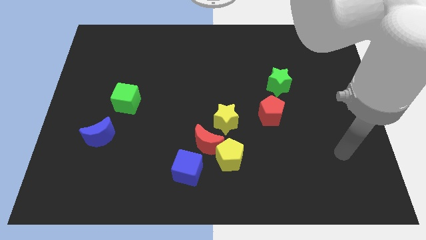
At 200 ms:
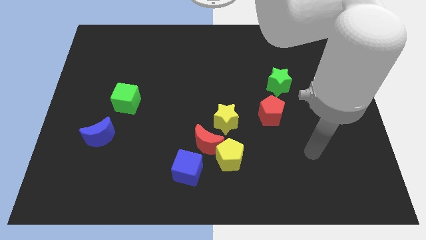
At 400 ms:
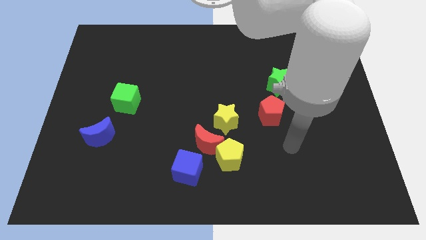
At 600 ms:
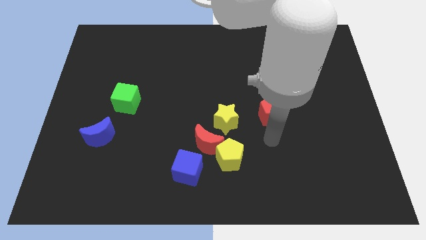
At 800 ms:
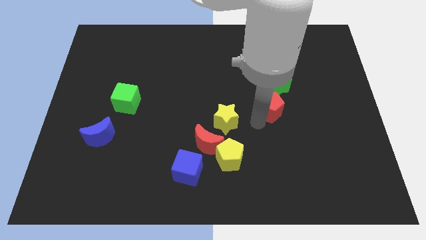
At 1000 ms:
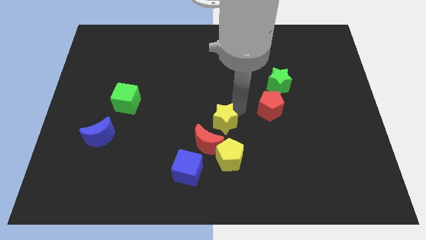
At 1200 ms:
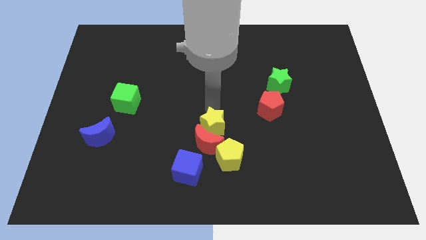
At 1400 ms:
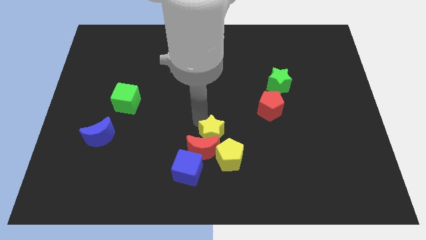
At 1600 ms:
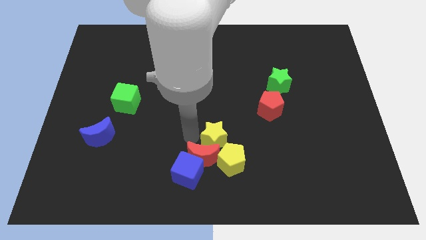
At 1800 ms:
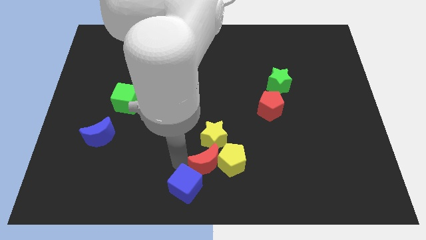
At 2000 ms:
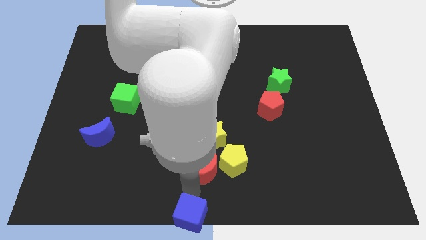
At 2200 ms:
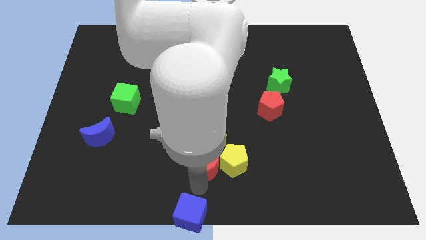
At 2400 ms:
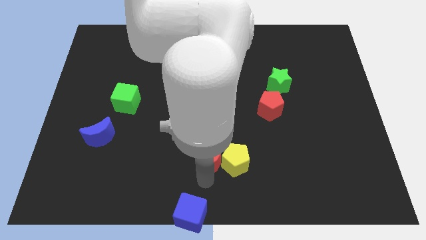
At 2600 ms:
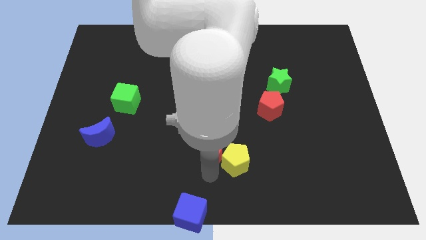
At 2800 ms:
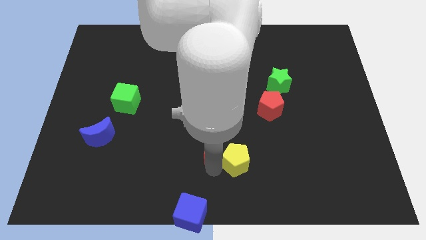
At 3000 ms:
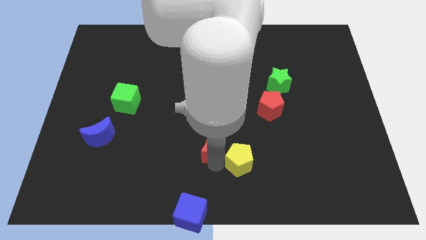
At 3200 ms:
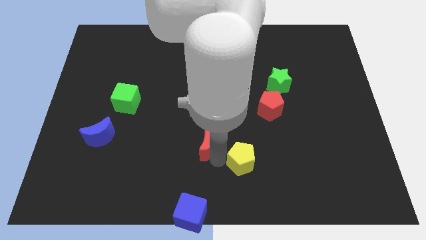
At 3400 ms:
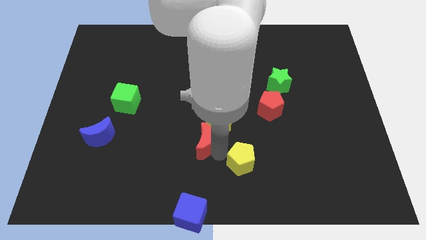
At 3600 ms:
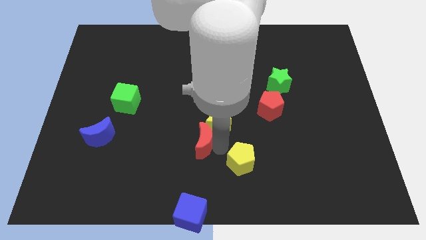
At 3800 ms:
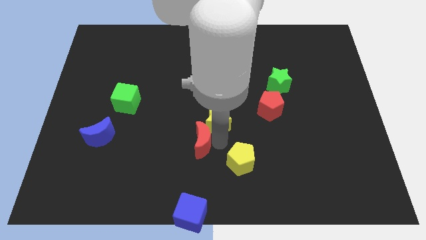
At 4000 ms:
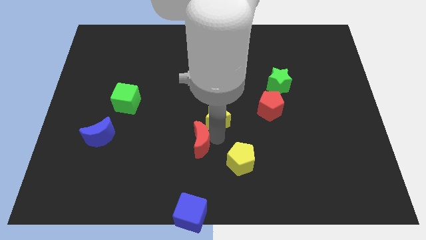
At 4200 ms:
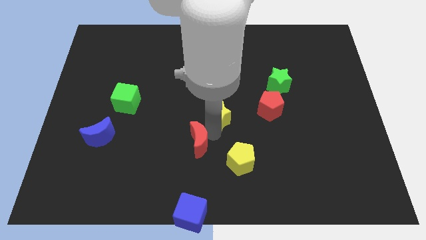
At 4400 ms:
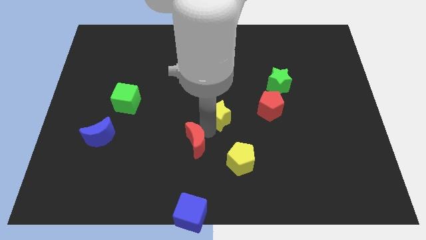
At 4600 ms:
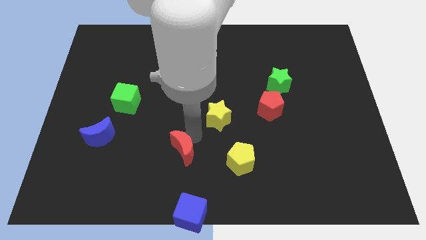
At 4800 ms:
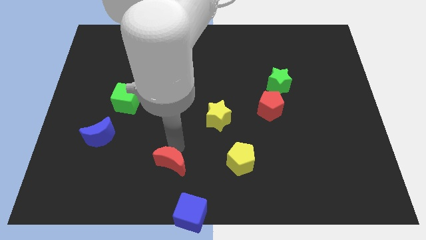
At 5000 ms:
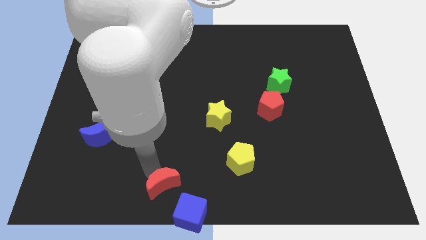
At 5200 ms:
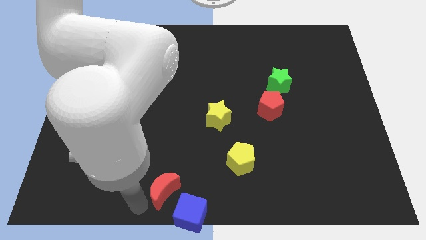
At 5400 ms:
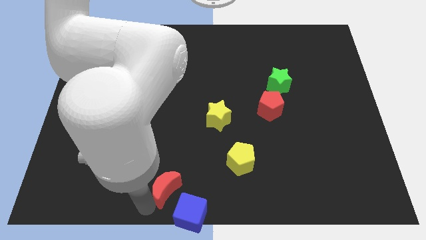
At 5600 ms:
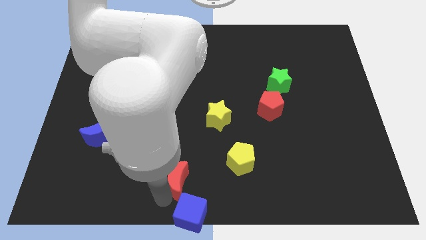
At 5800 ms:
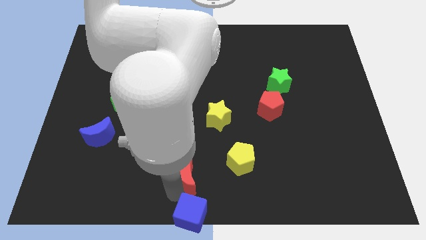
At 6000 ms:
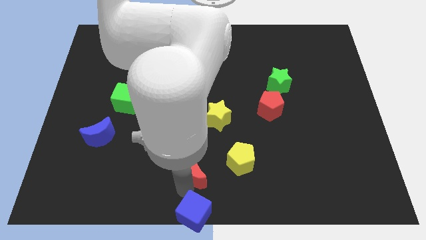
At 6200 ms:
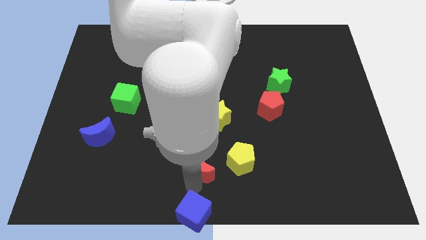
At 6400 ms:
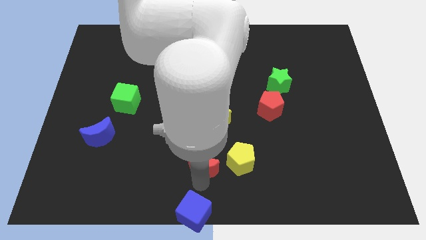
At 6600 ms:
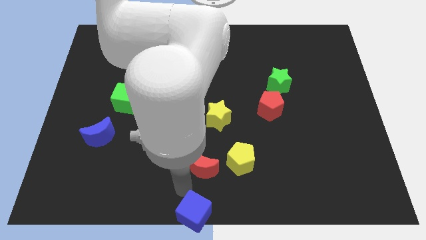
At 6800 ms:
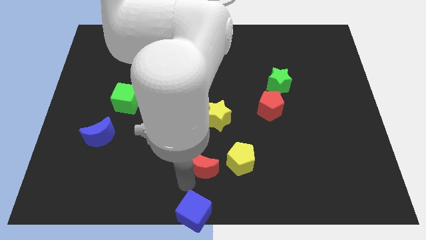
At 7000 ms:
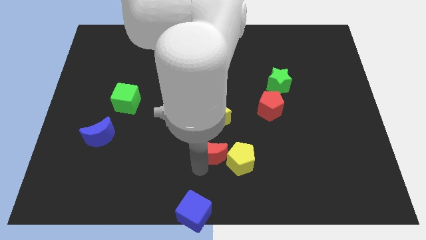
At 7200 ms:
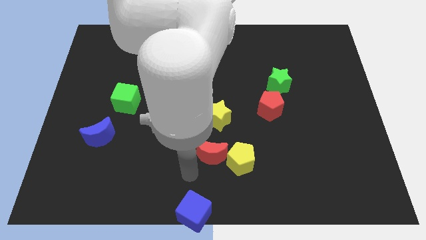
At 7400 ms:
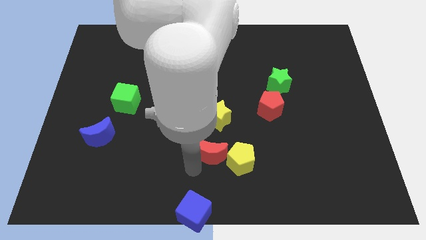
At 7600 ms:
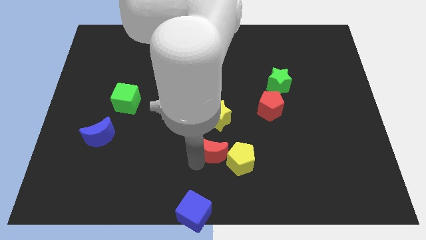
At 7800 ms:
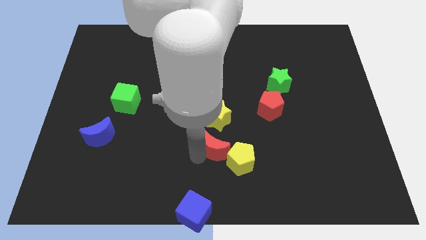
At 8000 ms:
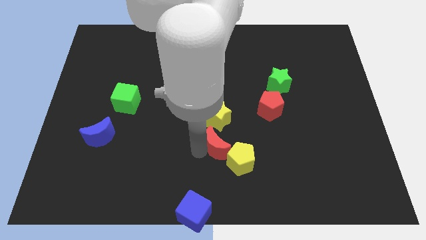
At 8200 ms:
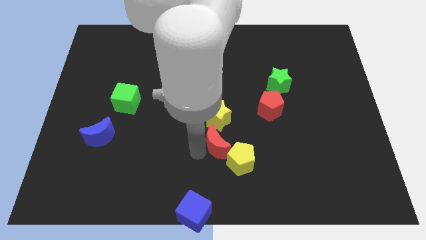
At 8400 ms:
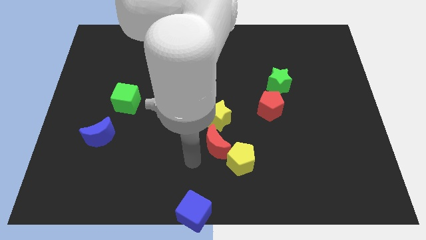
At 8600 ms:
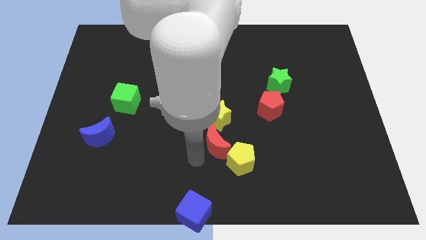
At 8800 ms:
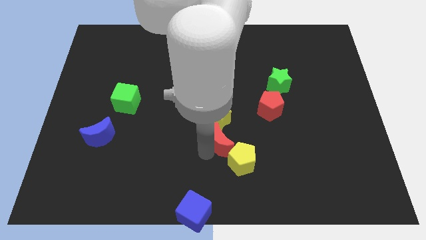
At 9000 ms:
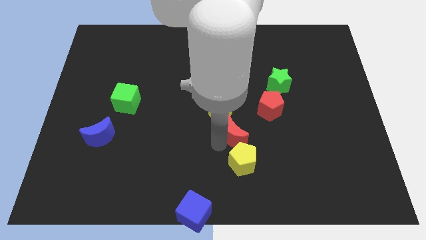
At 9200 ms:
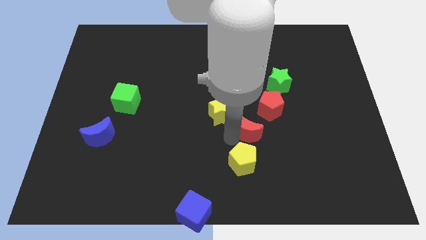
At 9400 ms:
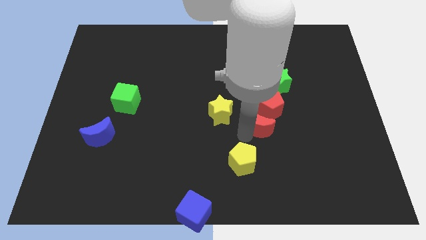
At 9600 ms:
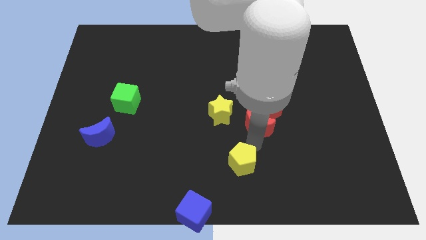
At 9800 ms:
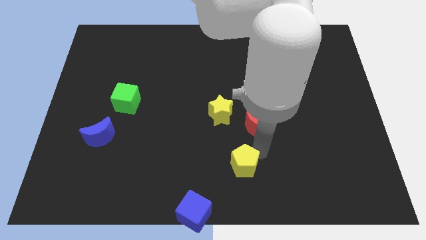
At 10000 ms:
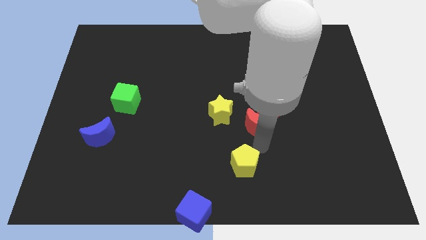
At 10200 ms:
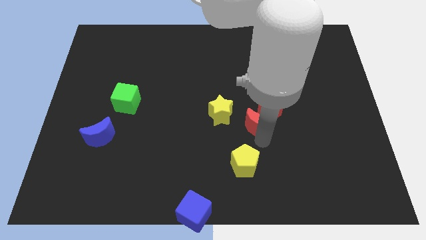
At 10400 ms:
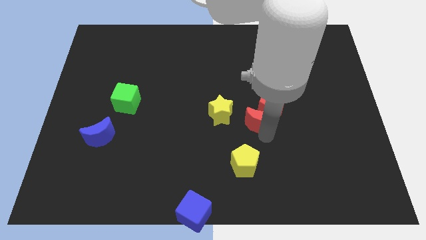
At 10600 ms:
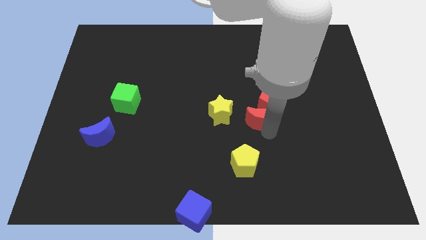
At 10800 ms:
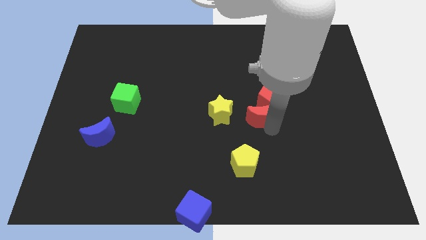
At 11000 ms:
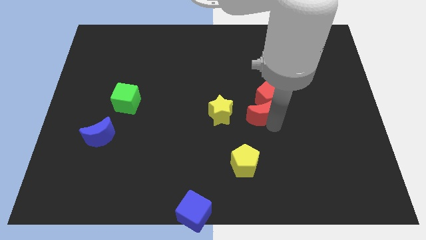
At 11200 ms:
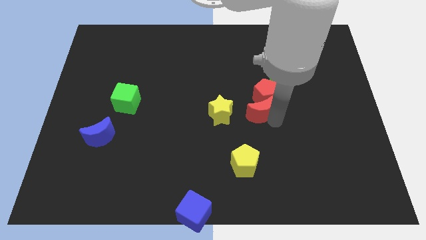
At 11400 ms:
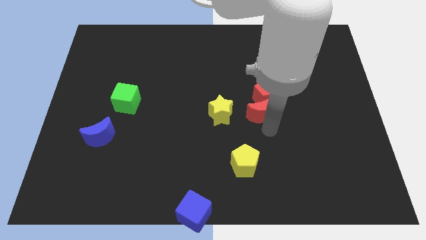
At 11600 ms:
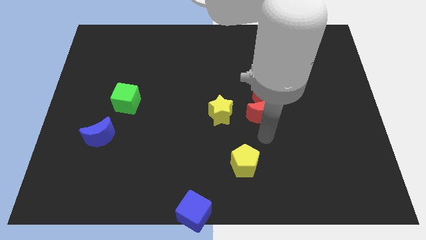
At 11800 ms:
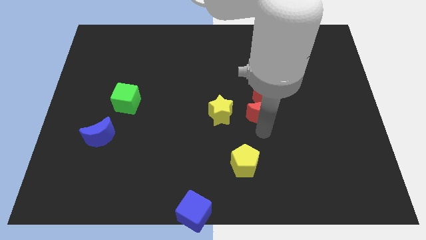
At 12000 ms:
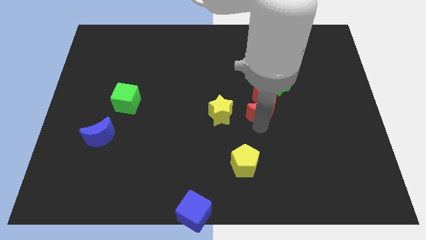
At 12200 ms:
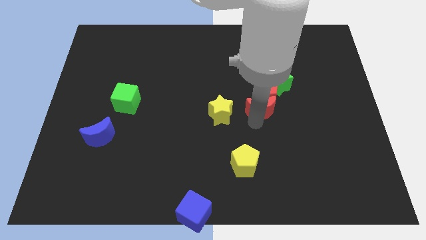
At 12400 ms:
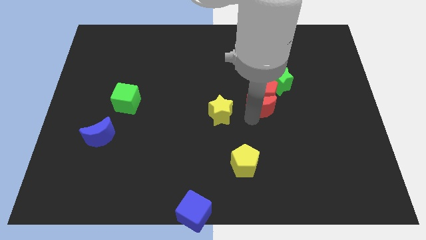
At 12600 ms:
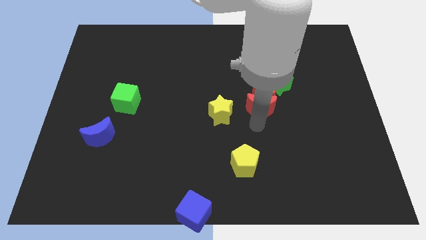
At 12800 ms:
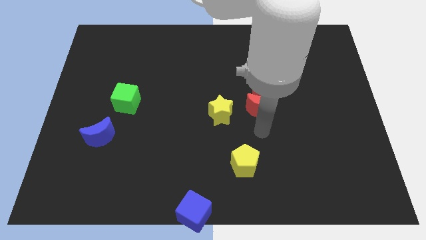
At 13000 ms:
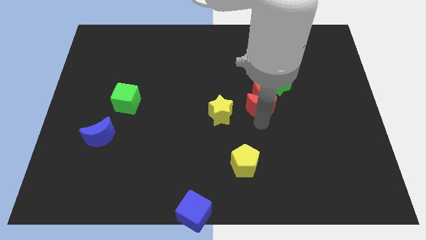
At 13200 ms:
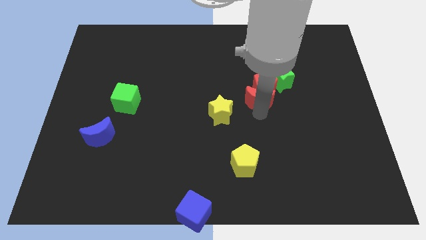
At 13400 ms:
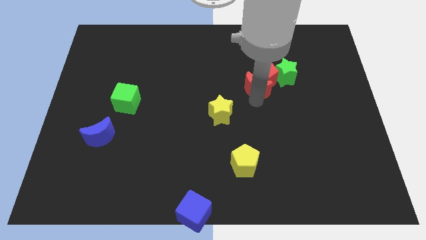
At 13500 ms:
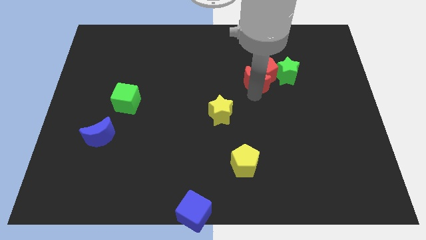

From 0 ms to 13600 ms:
slide the red moon up and to the right

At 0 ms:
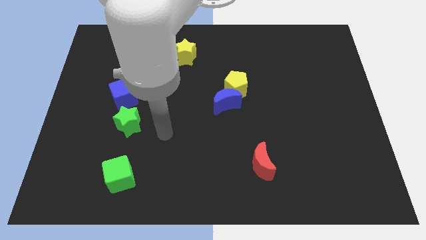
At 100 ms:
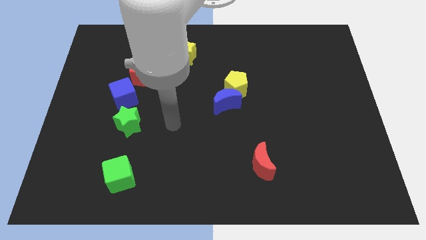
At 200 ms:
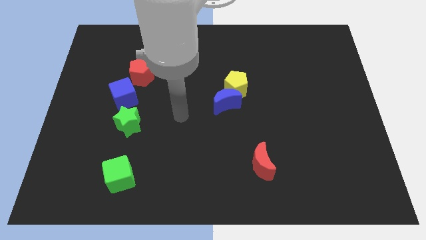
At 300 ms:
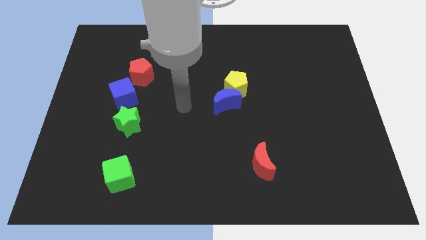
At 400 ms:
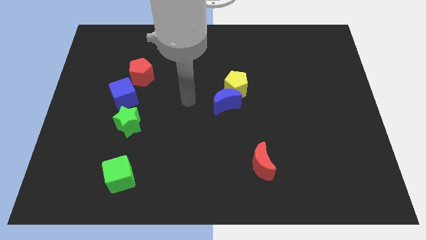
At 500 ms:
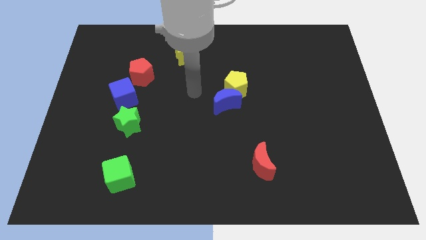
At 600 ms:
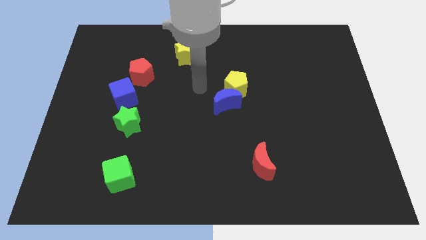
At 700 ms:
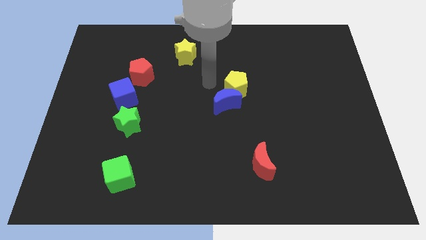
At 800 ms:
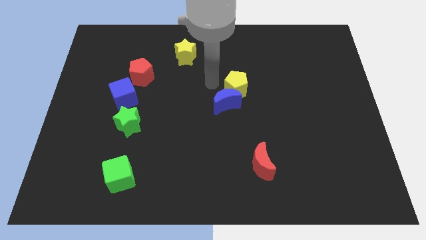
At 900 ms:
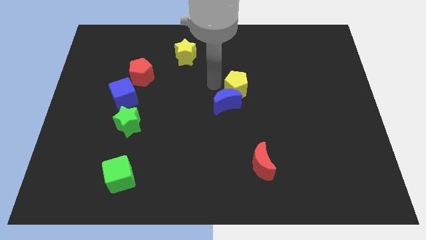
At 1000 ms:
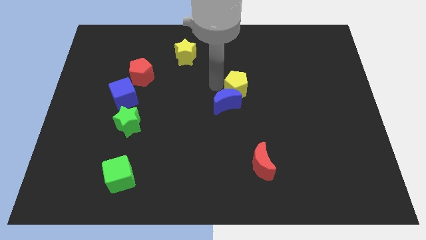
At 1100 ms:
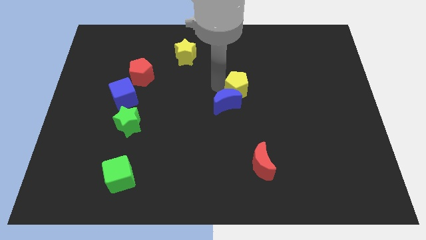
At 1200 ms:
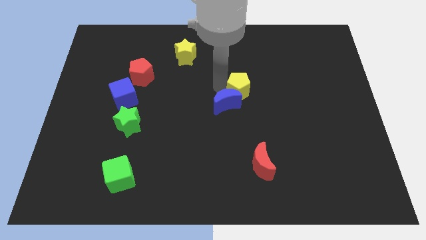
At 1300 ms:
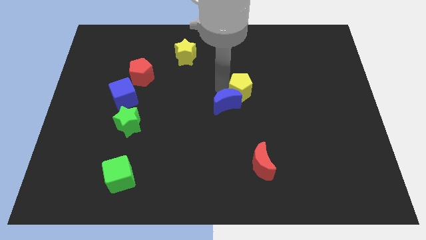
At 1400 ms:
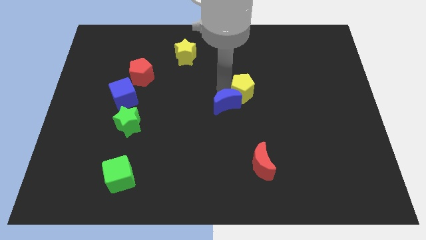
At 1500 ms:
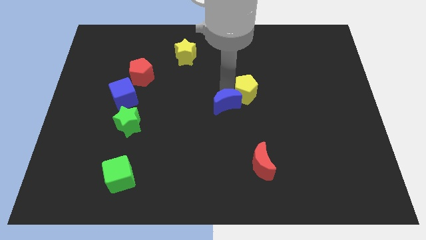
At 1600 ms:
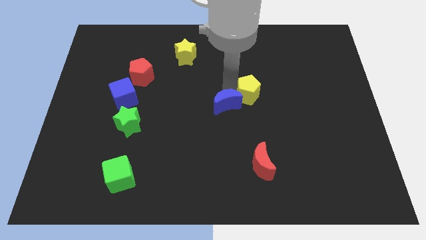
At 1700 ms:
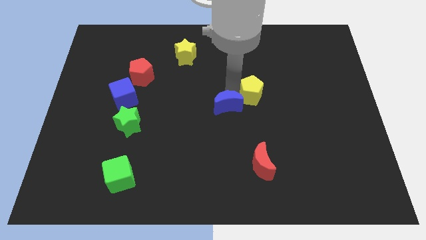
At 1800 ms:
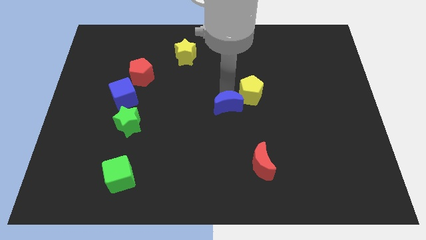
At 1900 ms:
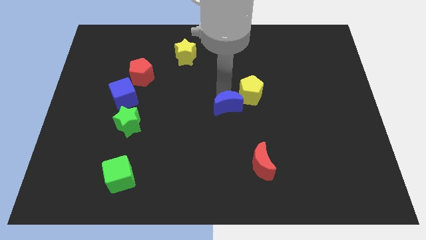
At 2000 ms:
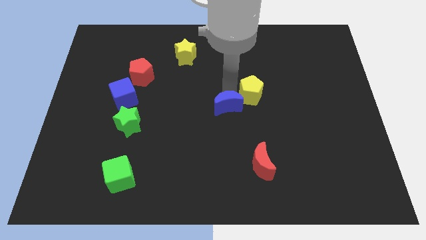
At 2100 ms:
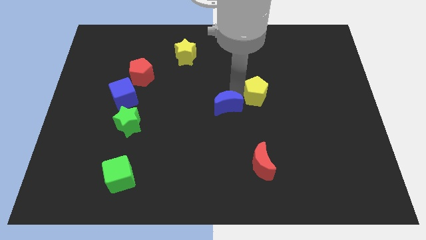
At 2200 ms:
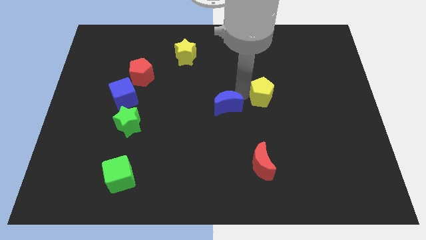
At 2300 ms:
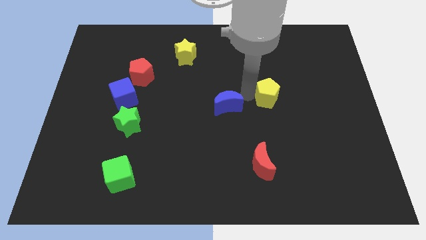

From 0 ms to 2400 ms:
move the yellow pentagon right a little bit
